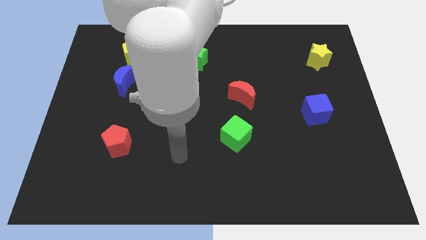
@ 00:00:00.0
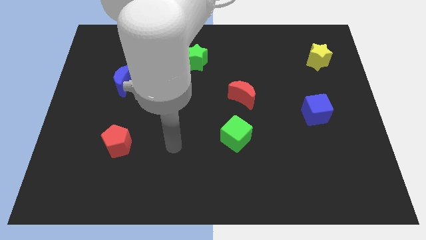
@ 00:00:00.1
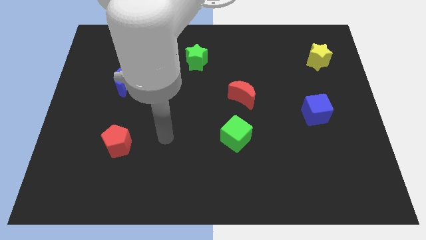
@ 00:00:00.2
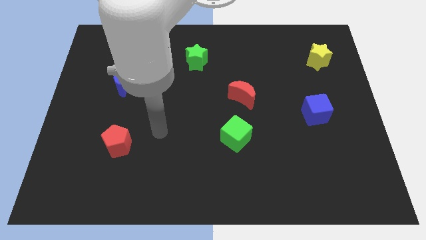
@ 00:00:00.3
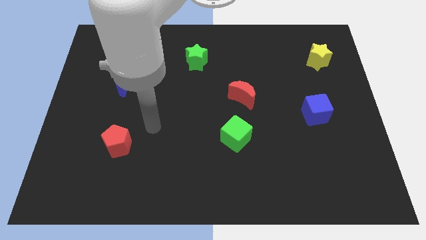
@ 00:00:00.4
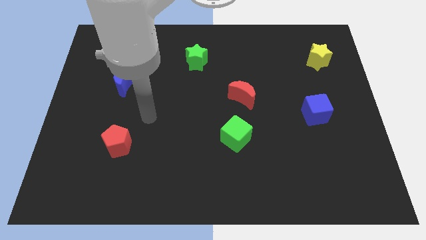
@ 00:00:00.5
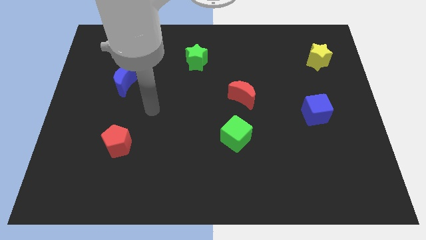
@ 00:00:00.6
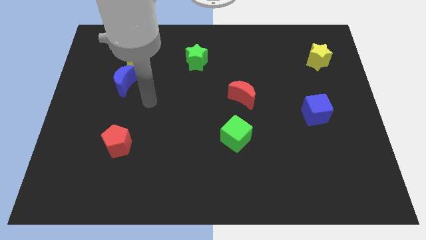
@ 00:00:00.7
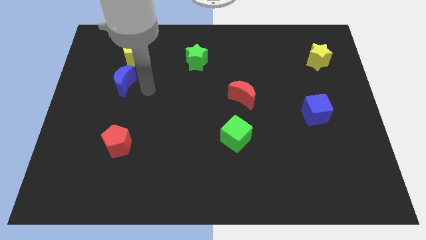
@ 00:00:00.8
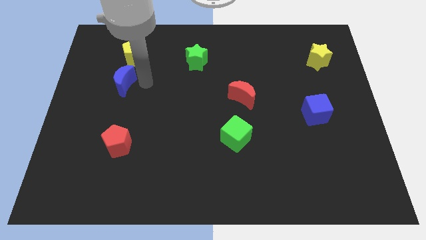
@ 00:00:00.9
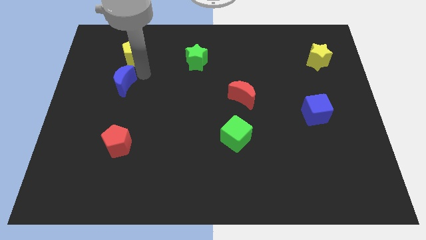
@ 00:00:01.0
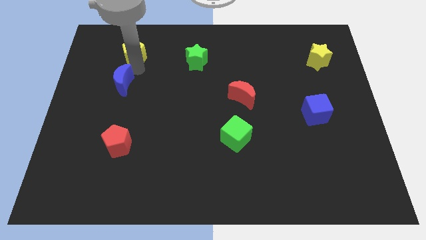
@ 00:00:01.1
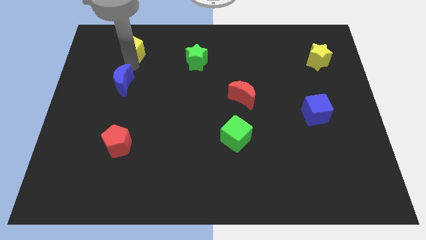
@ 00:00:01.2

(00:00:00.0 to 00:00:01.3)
pull the blue moon apart from the yellow pentagon

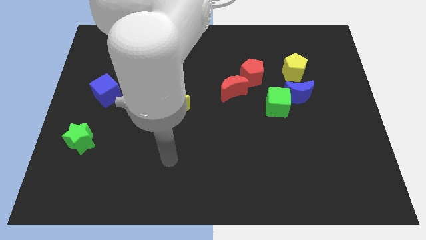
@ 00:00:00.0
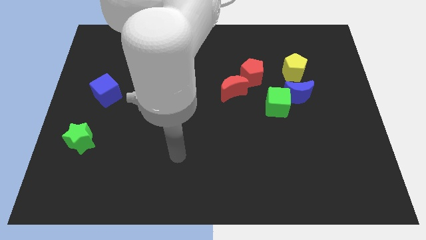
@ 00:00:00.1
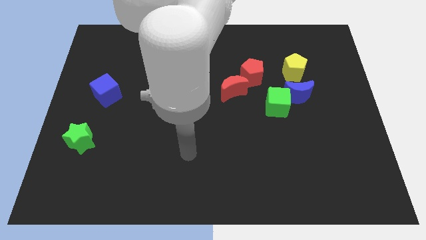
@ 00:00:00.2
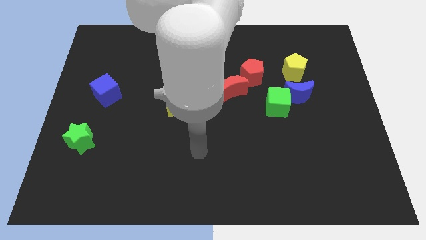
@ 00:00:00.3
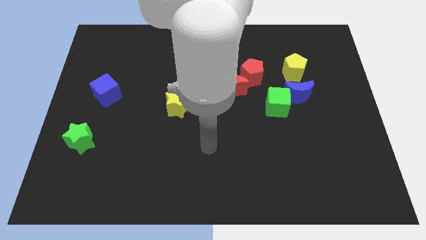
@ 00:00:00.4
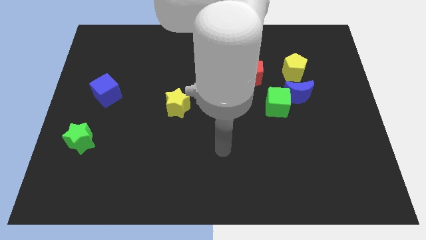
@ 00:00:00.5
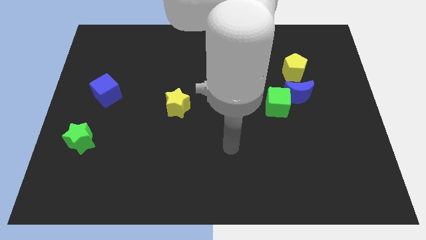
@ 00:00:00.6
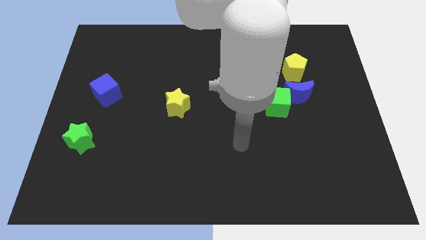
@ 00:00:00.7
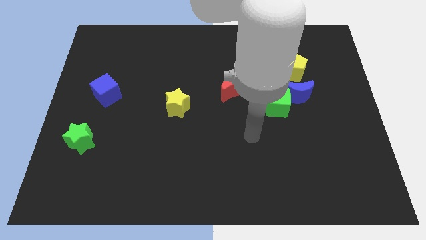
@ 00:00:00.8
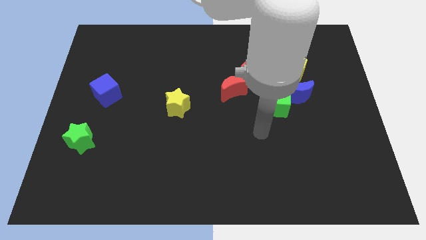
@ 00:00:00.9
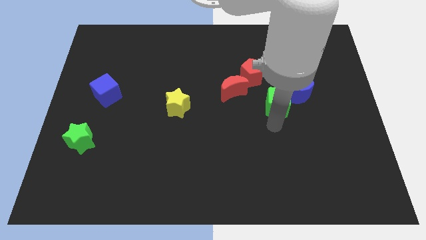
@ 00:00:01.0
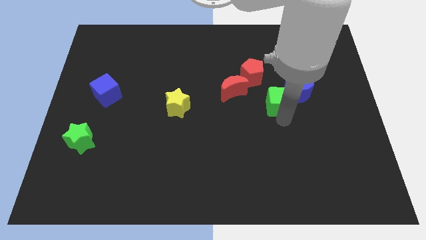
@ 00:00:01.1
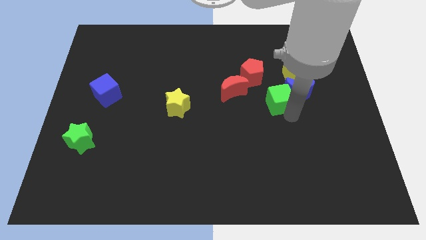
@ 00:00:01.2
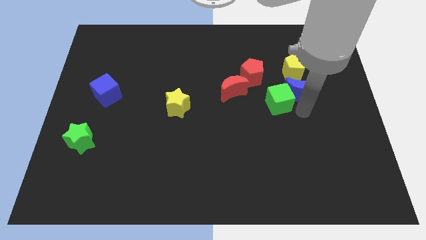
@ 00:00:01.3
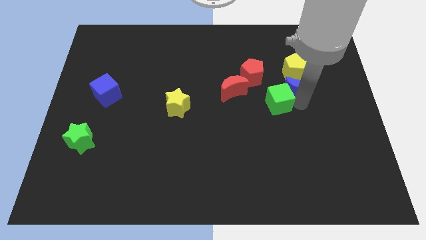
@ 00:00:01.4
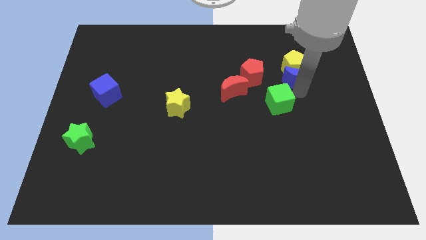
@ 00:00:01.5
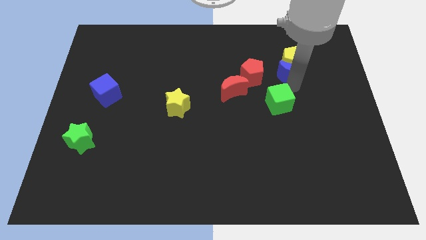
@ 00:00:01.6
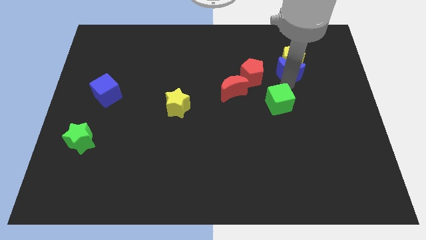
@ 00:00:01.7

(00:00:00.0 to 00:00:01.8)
separate the green cube from the blue moon

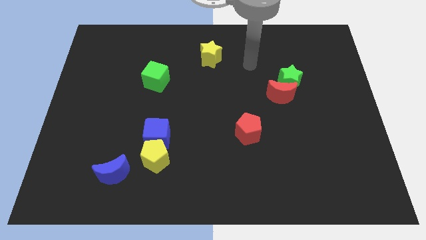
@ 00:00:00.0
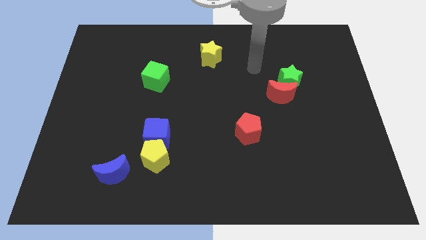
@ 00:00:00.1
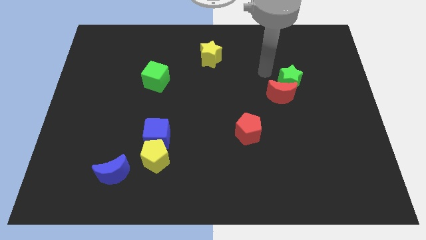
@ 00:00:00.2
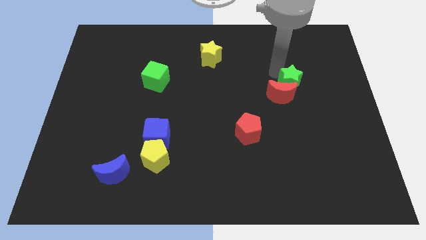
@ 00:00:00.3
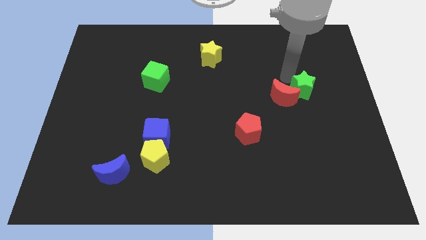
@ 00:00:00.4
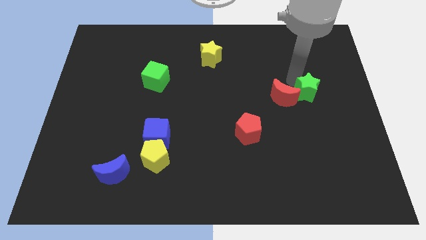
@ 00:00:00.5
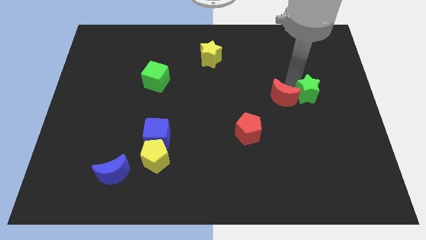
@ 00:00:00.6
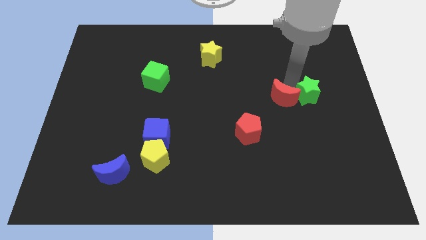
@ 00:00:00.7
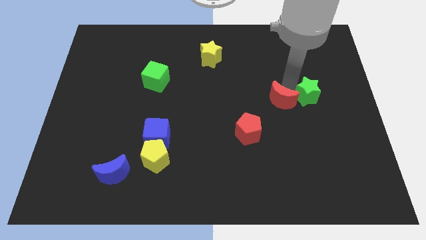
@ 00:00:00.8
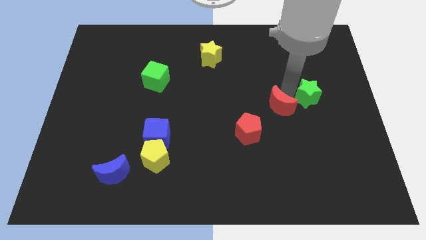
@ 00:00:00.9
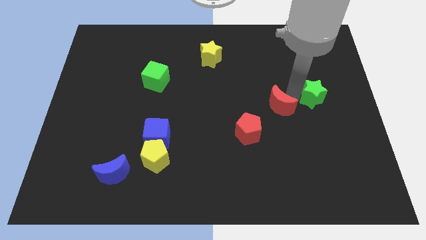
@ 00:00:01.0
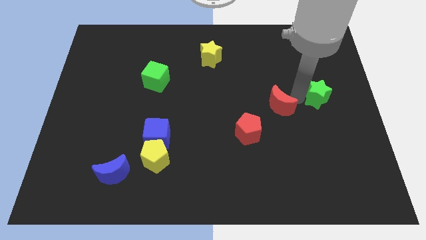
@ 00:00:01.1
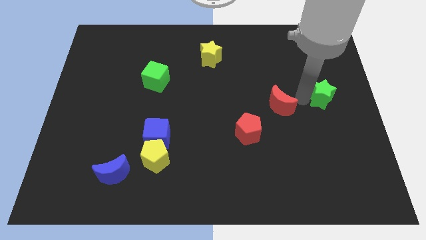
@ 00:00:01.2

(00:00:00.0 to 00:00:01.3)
separate the red moon from the green star

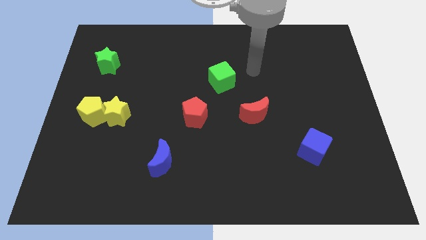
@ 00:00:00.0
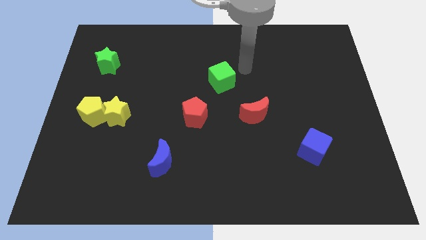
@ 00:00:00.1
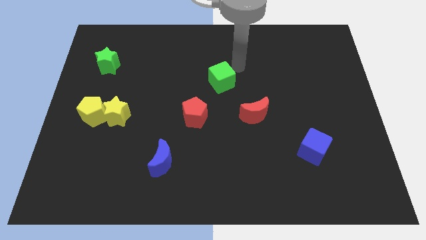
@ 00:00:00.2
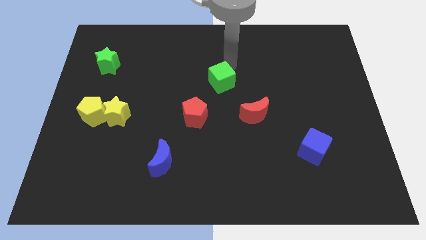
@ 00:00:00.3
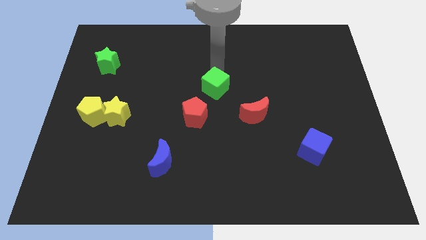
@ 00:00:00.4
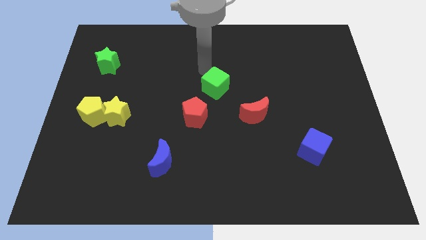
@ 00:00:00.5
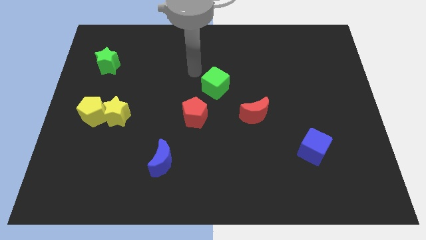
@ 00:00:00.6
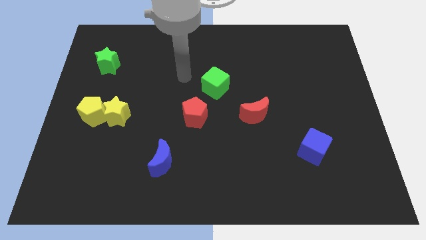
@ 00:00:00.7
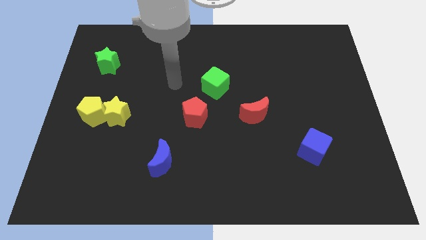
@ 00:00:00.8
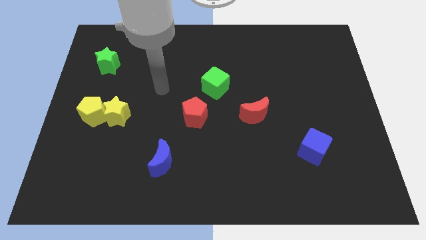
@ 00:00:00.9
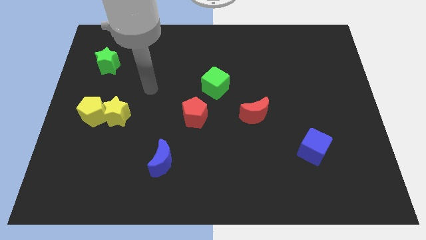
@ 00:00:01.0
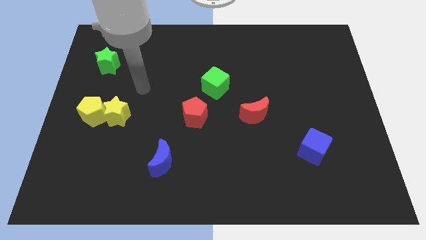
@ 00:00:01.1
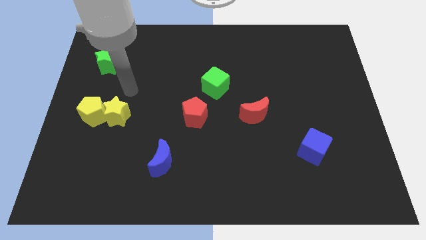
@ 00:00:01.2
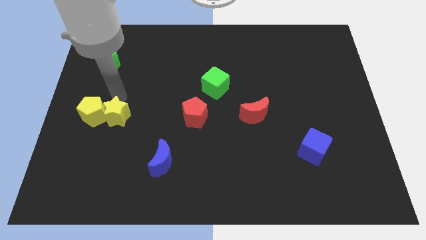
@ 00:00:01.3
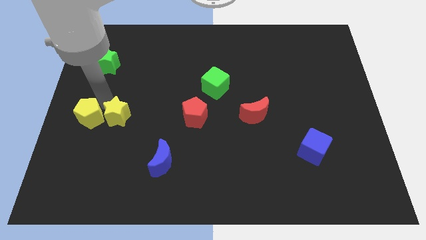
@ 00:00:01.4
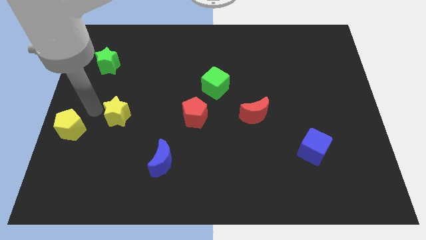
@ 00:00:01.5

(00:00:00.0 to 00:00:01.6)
move the yellow star away from the yellow pentagon

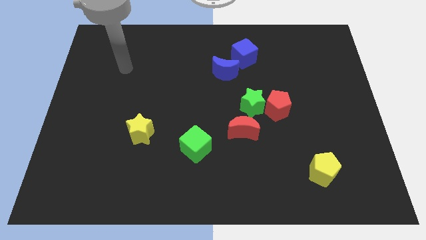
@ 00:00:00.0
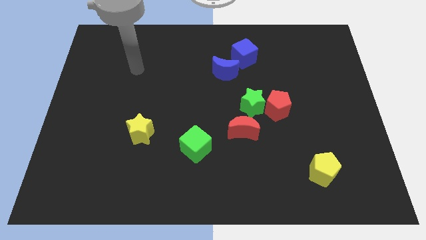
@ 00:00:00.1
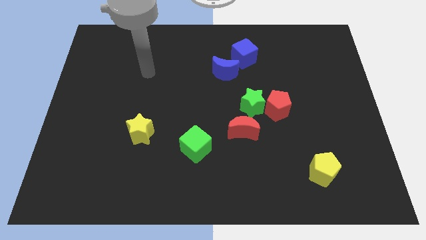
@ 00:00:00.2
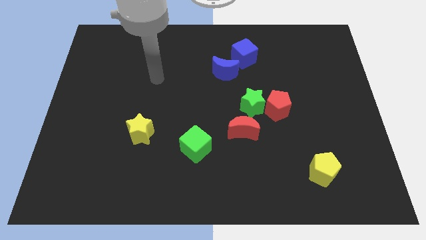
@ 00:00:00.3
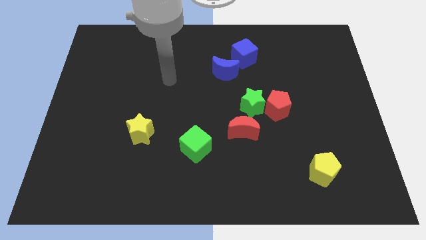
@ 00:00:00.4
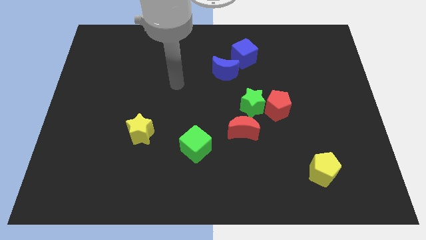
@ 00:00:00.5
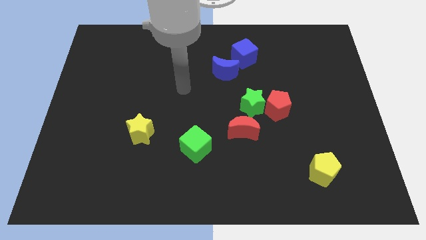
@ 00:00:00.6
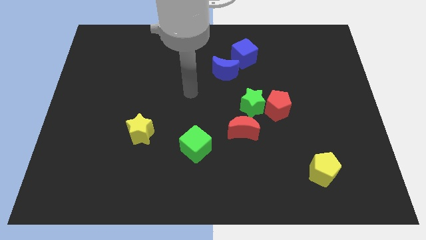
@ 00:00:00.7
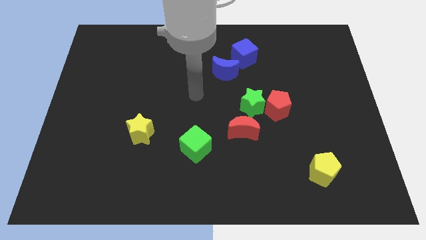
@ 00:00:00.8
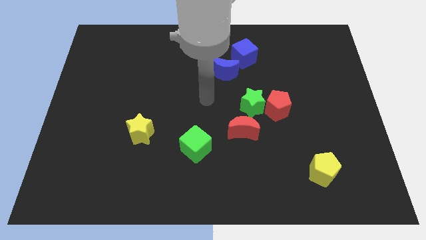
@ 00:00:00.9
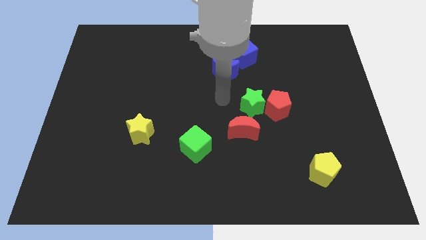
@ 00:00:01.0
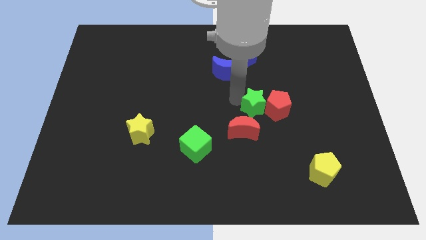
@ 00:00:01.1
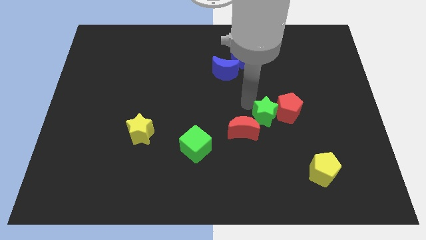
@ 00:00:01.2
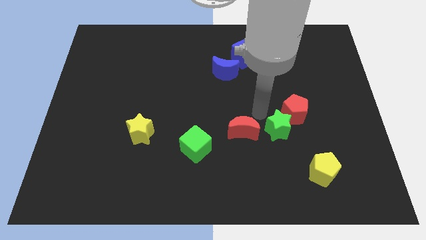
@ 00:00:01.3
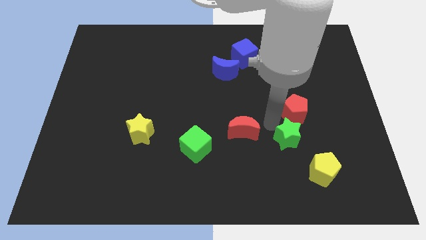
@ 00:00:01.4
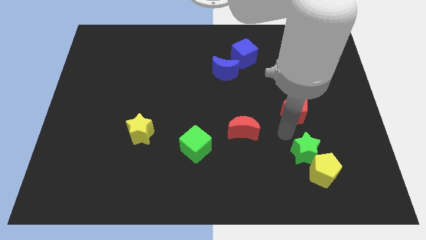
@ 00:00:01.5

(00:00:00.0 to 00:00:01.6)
separate the red pentagon from the green star

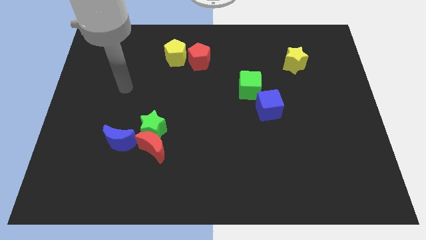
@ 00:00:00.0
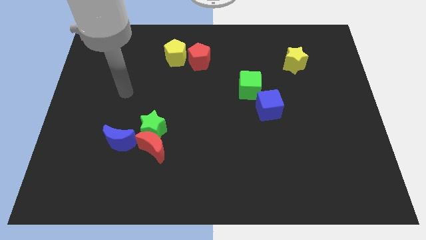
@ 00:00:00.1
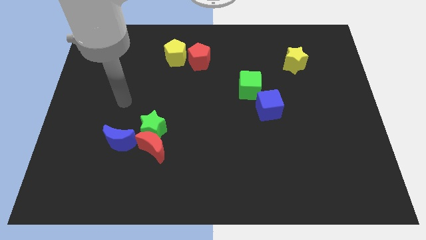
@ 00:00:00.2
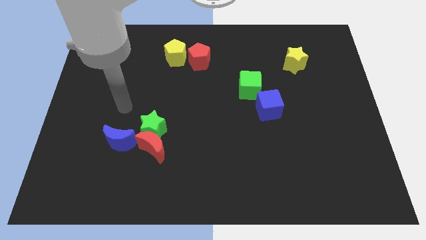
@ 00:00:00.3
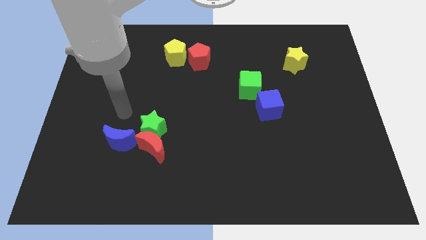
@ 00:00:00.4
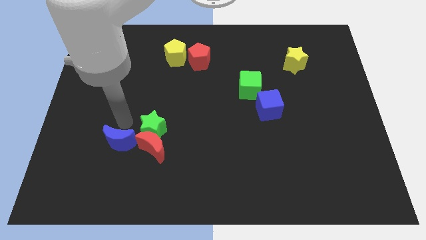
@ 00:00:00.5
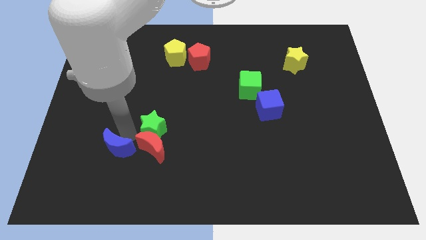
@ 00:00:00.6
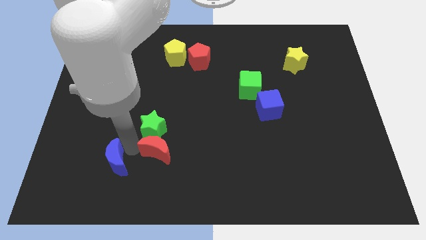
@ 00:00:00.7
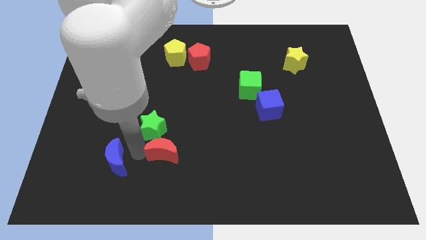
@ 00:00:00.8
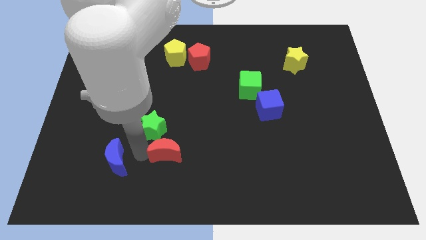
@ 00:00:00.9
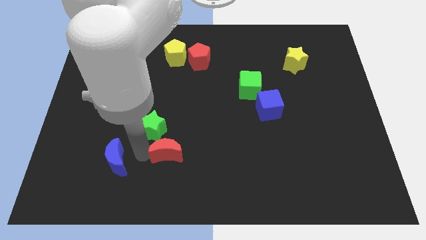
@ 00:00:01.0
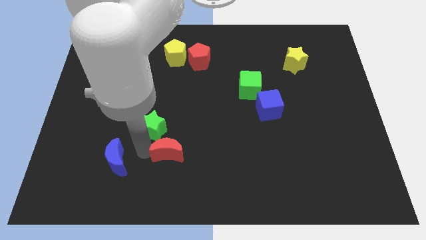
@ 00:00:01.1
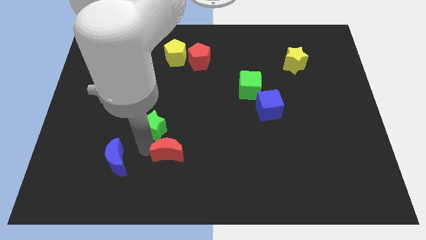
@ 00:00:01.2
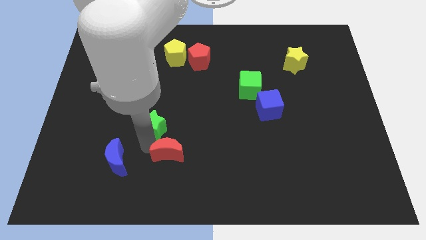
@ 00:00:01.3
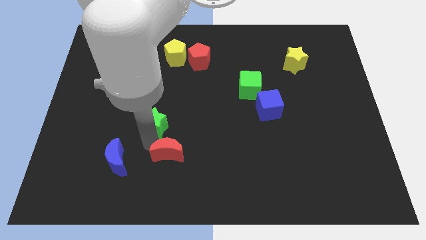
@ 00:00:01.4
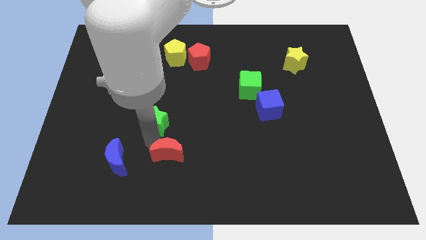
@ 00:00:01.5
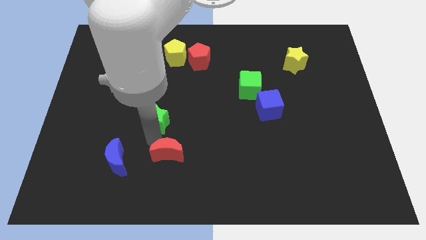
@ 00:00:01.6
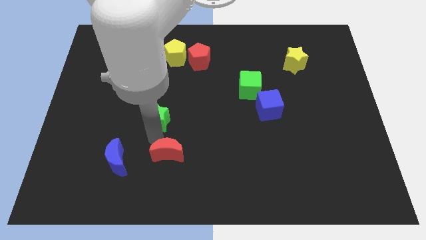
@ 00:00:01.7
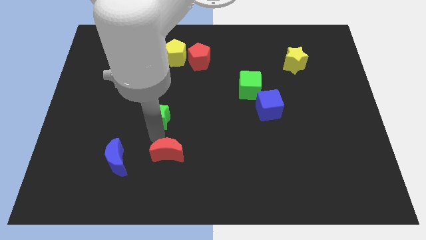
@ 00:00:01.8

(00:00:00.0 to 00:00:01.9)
pull the green star apart from the red moon and blue moon
